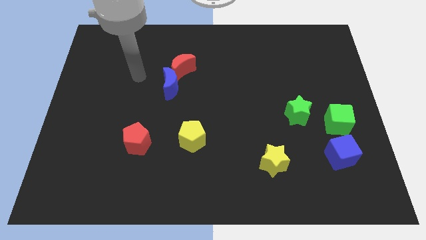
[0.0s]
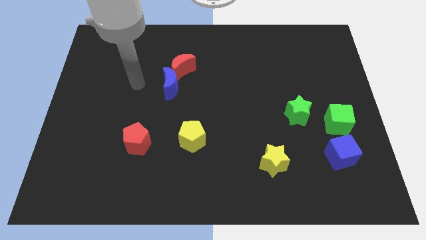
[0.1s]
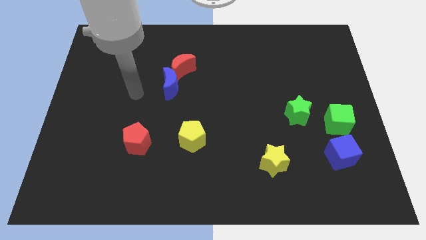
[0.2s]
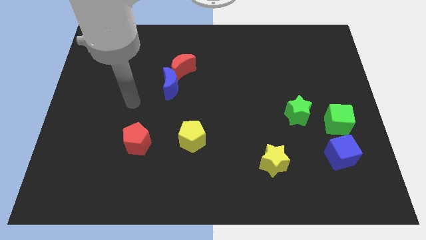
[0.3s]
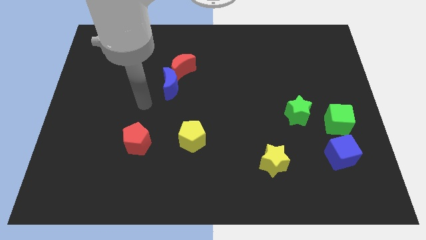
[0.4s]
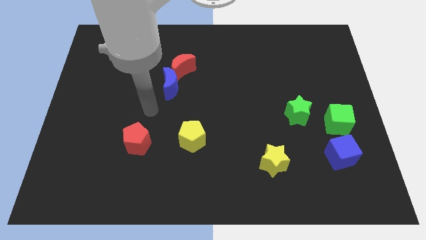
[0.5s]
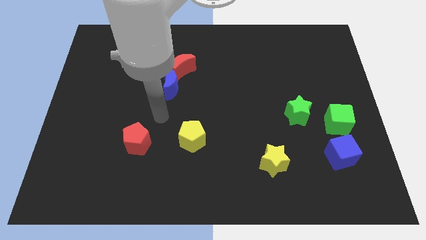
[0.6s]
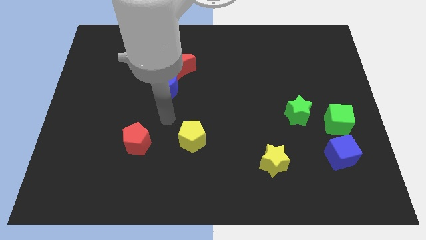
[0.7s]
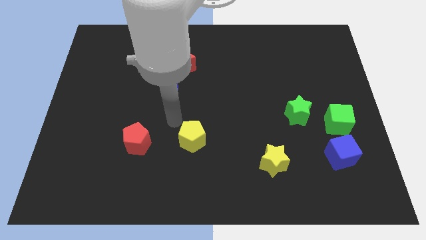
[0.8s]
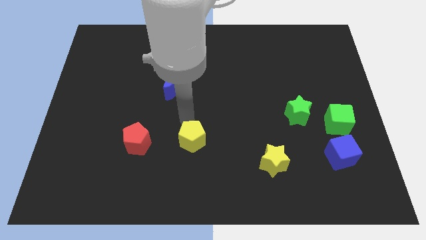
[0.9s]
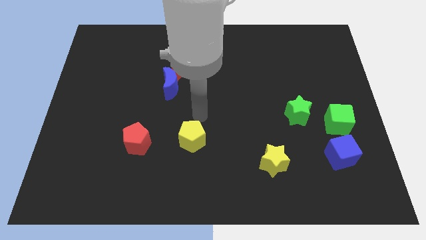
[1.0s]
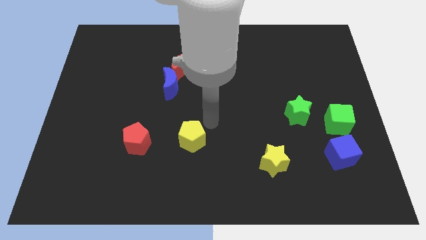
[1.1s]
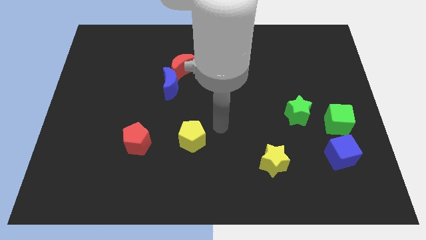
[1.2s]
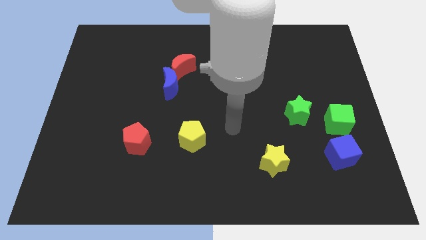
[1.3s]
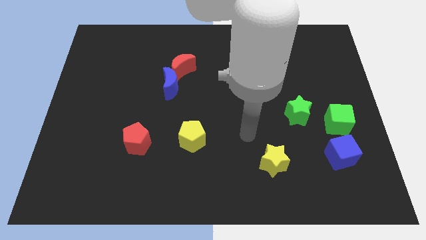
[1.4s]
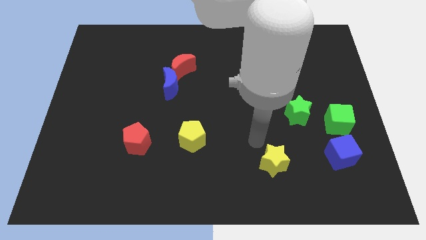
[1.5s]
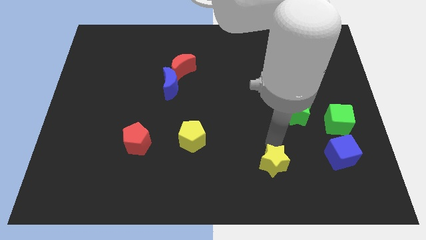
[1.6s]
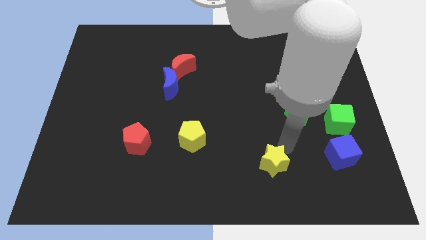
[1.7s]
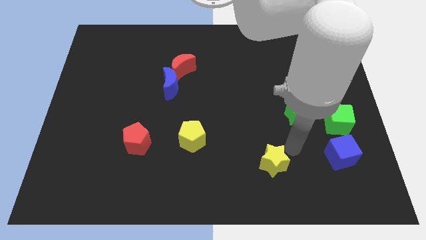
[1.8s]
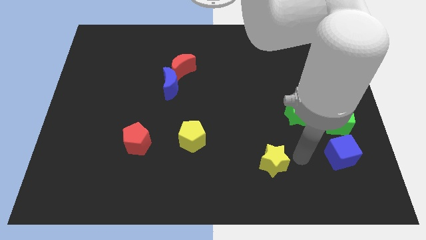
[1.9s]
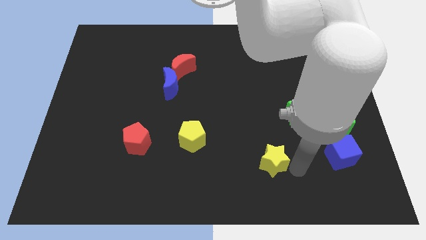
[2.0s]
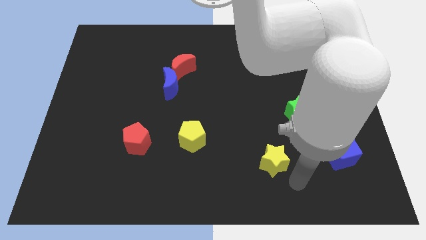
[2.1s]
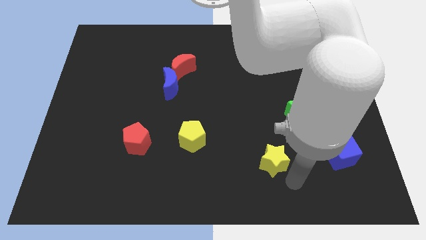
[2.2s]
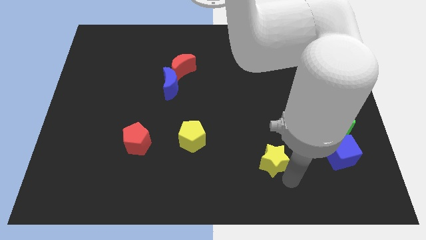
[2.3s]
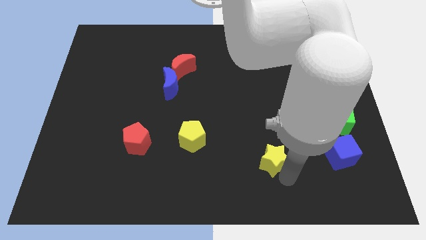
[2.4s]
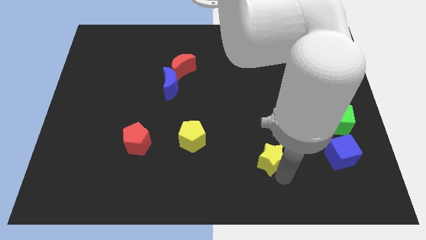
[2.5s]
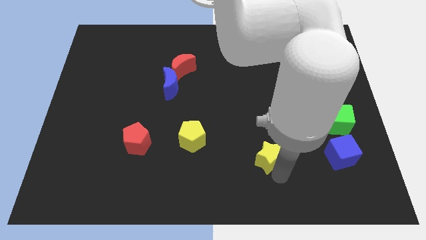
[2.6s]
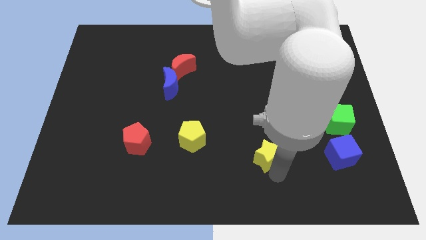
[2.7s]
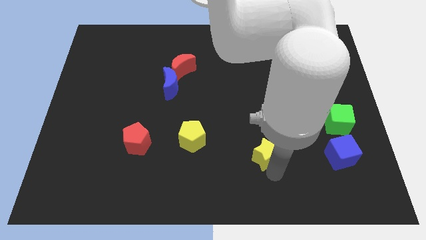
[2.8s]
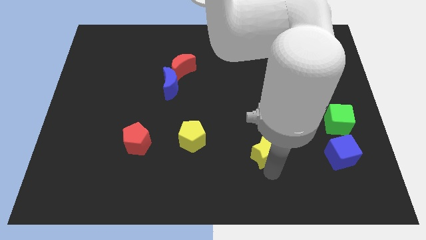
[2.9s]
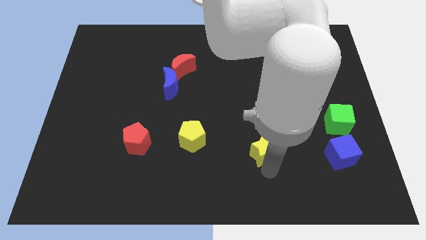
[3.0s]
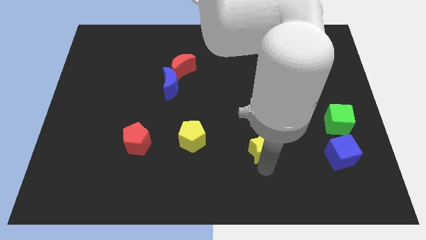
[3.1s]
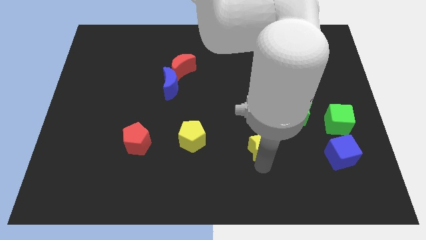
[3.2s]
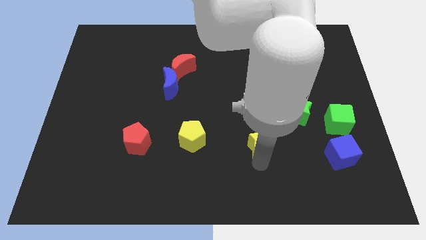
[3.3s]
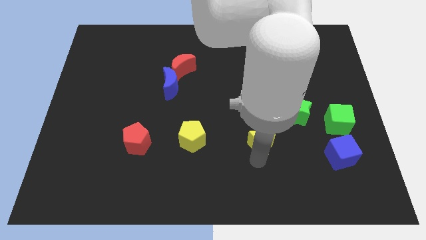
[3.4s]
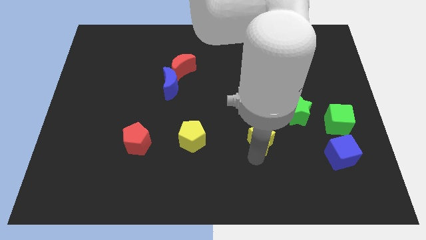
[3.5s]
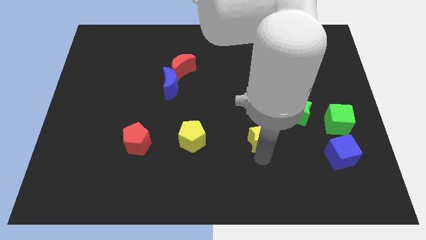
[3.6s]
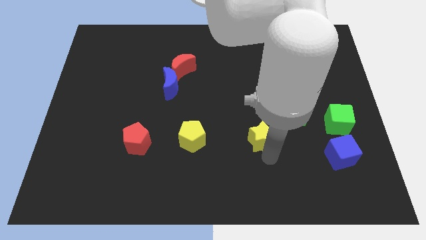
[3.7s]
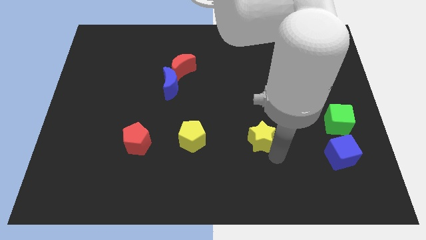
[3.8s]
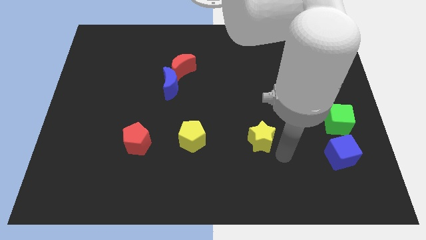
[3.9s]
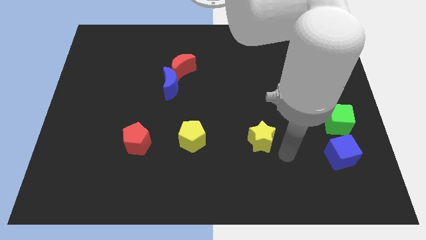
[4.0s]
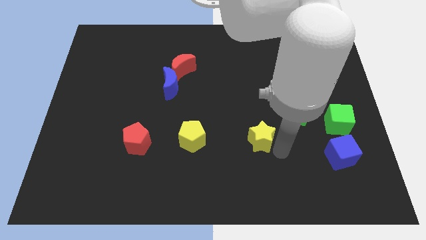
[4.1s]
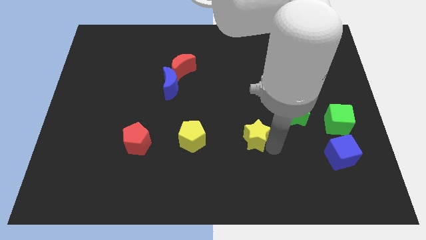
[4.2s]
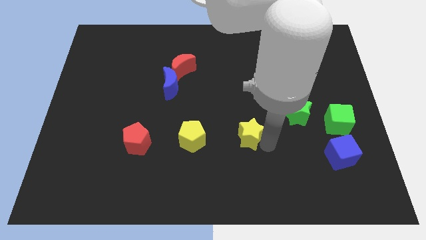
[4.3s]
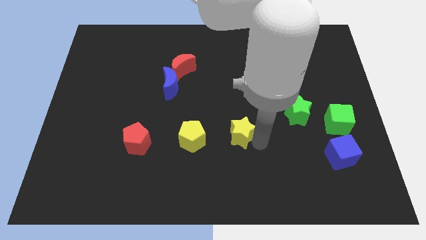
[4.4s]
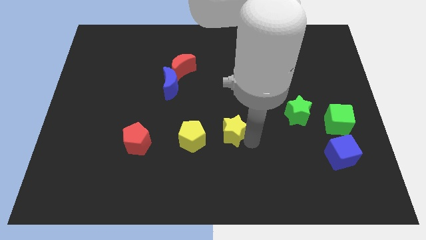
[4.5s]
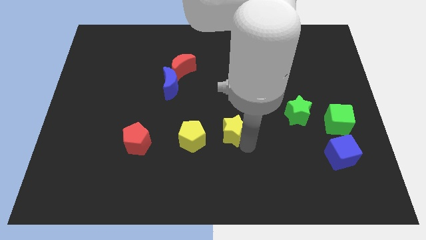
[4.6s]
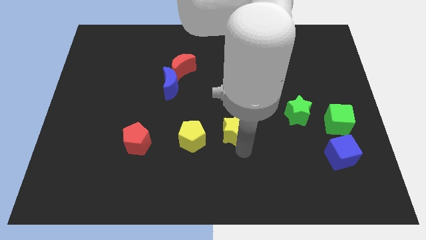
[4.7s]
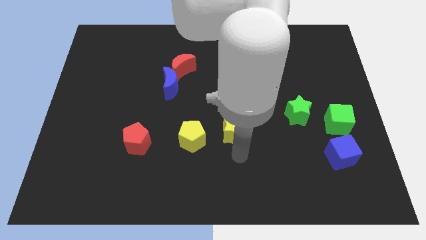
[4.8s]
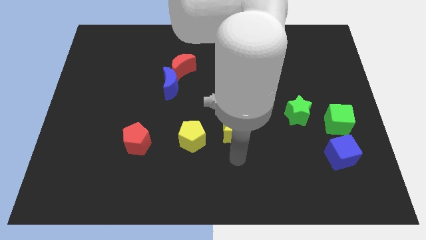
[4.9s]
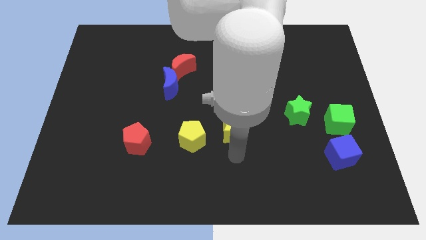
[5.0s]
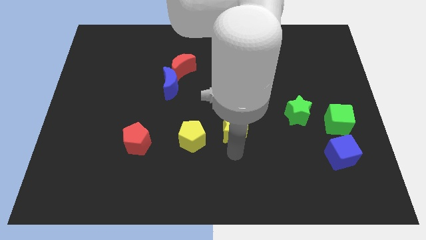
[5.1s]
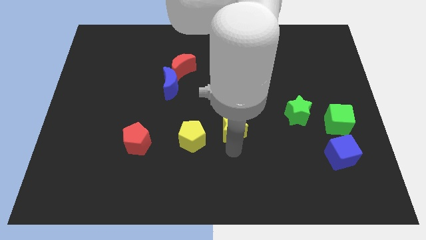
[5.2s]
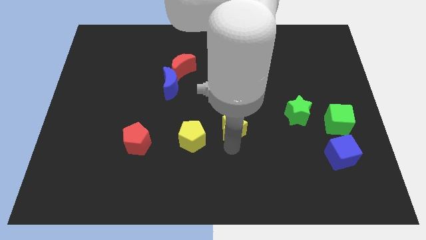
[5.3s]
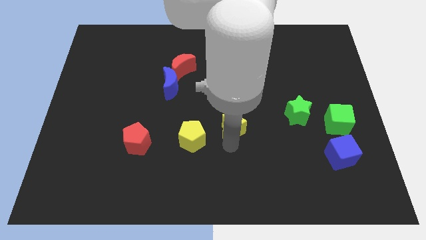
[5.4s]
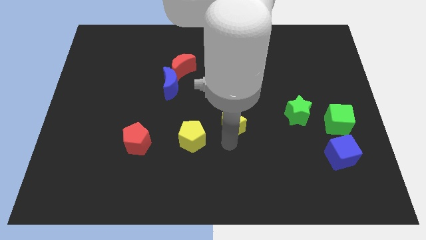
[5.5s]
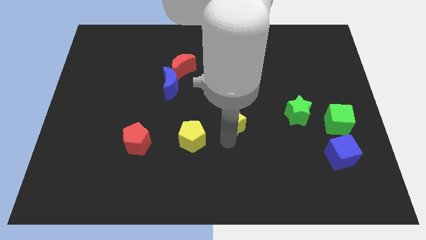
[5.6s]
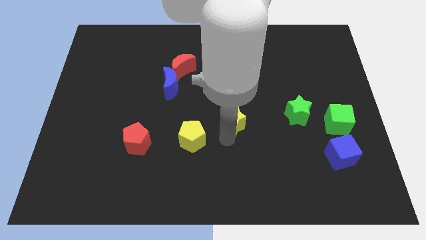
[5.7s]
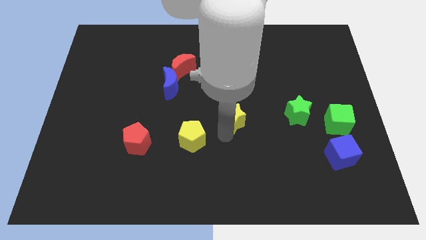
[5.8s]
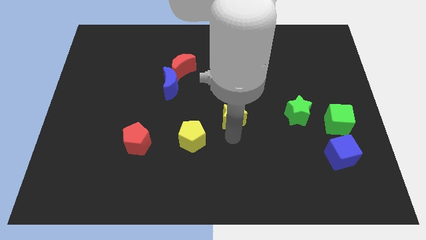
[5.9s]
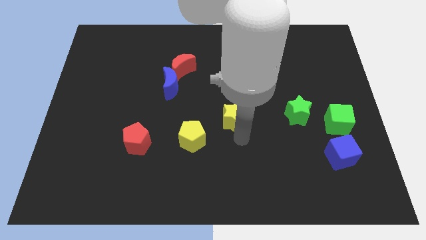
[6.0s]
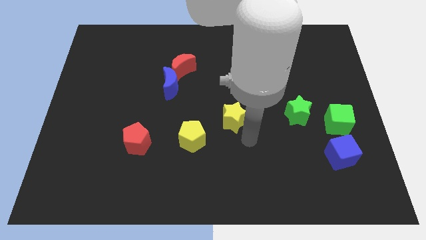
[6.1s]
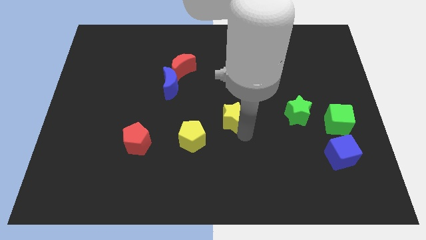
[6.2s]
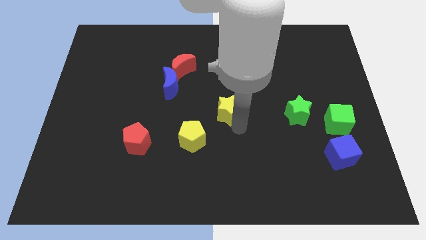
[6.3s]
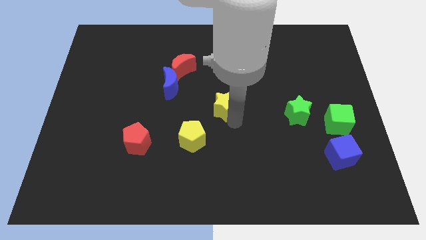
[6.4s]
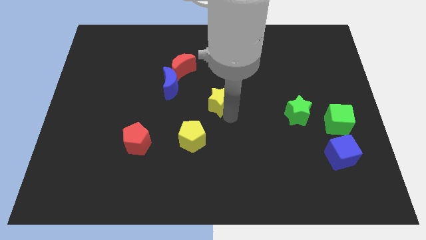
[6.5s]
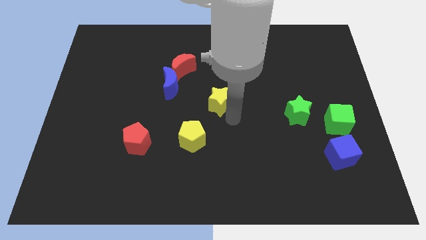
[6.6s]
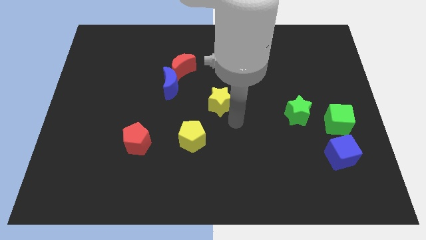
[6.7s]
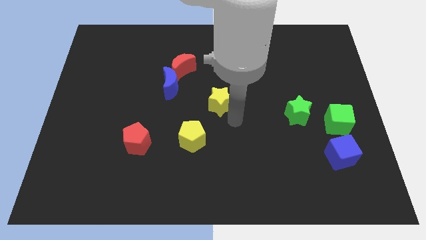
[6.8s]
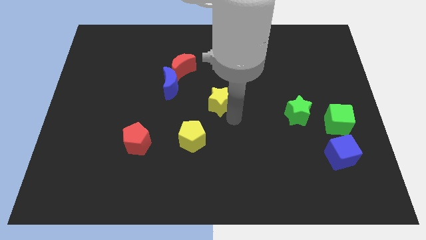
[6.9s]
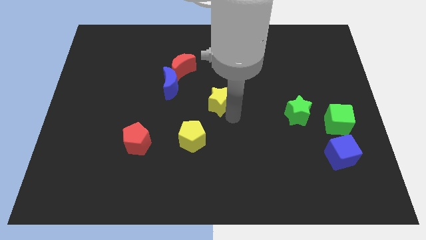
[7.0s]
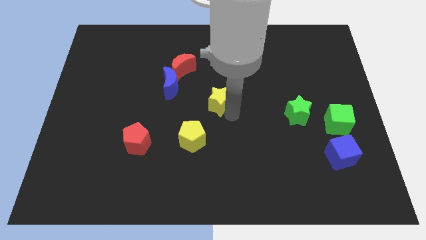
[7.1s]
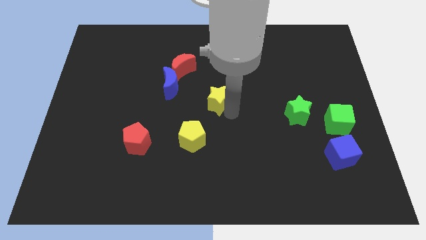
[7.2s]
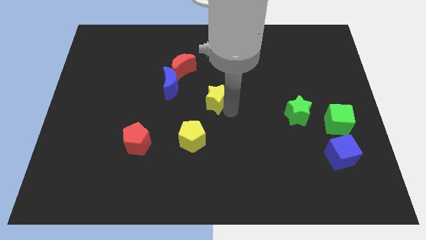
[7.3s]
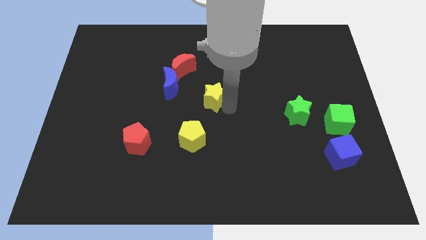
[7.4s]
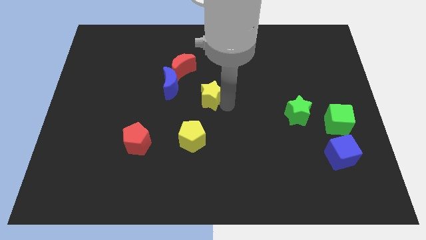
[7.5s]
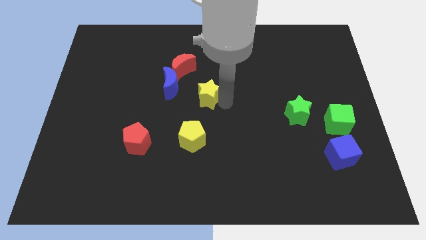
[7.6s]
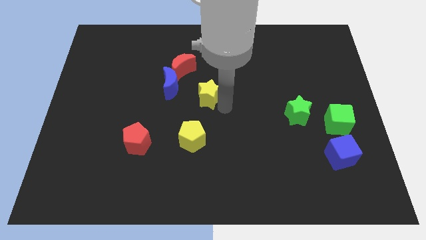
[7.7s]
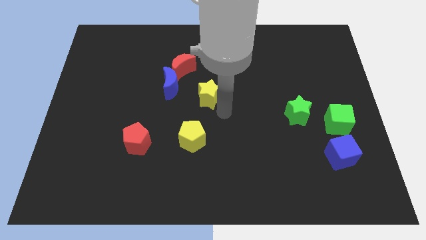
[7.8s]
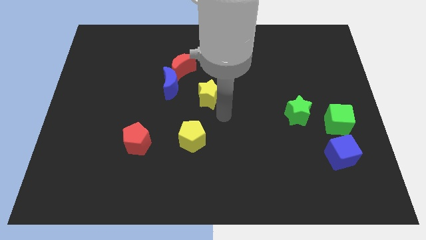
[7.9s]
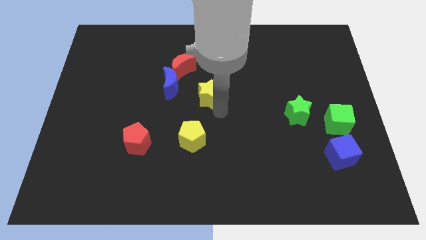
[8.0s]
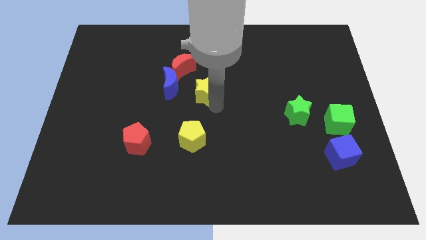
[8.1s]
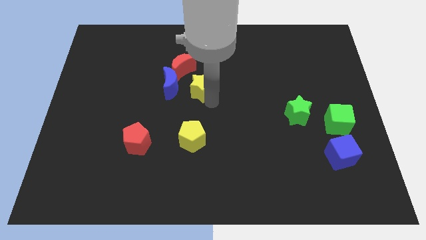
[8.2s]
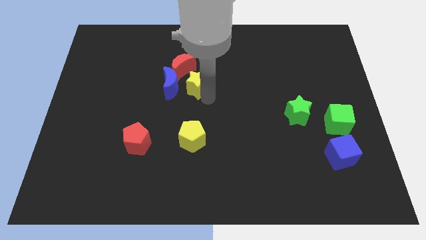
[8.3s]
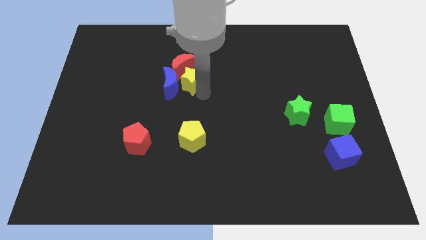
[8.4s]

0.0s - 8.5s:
push the yellow star next to the red moon
